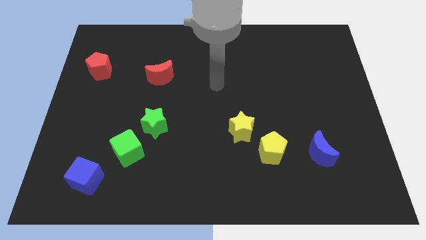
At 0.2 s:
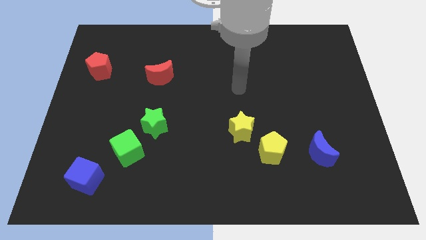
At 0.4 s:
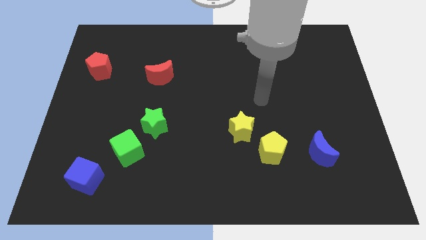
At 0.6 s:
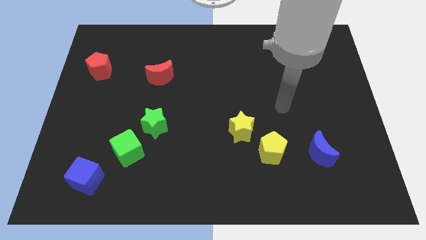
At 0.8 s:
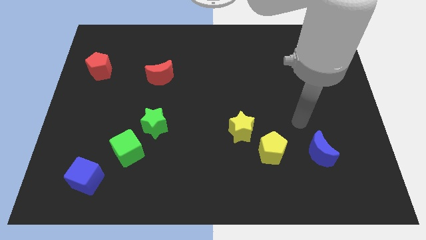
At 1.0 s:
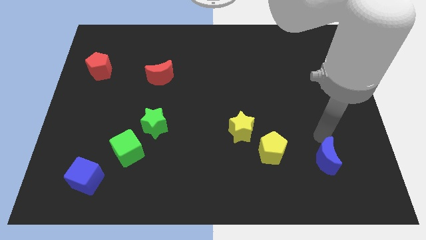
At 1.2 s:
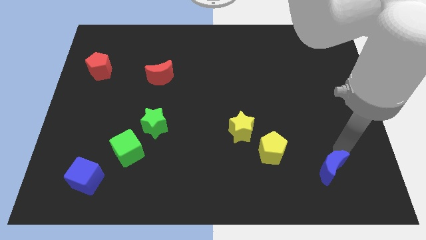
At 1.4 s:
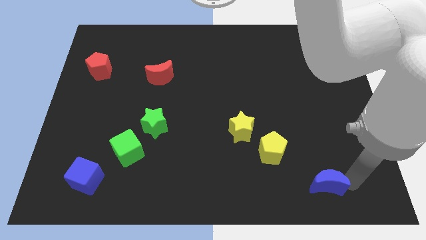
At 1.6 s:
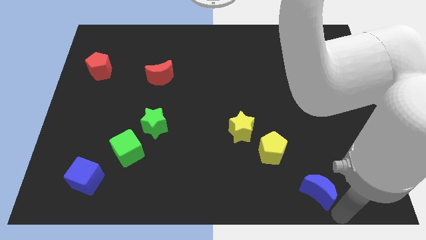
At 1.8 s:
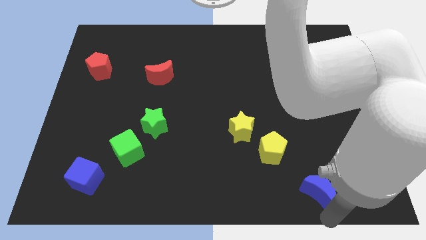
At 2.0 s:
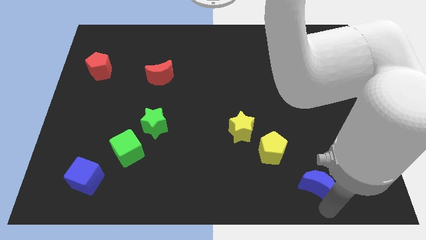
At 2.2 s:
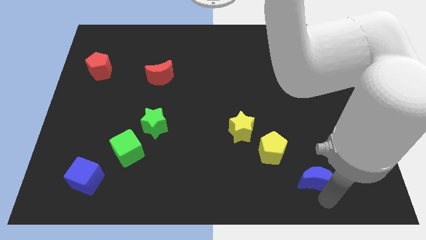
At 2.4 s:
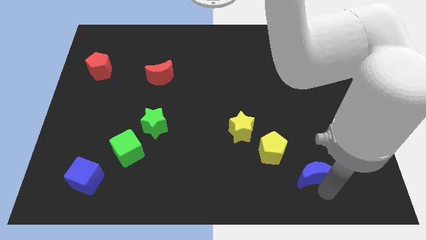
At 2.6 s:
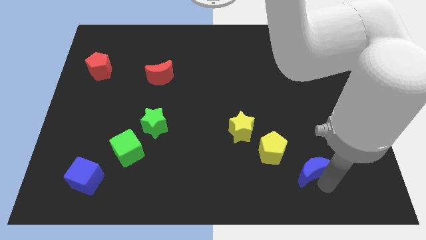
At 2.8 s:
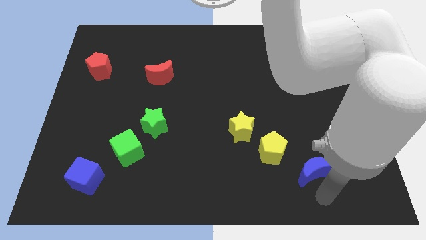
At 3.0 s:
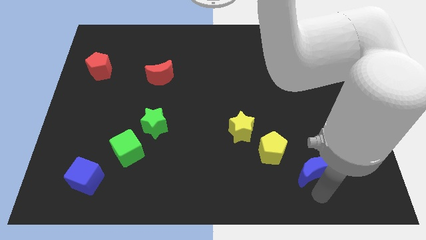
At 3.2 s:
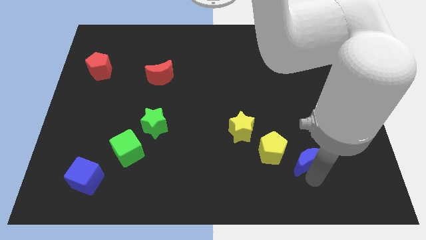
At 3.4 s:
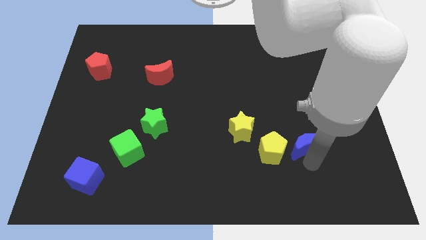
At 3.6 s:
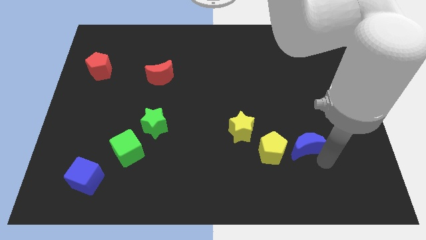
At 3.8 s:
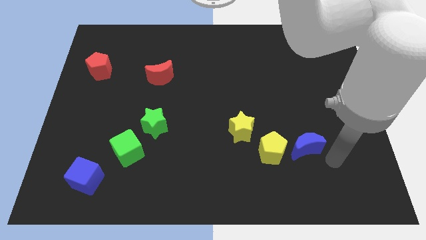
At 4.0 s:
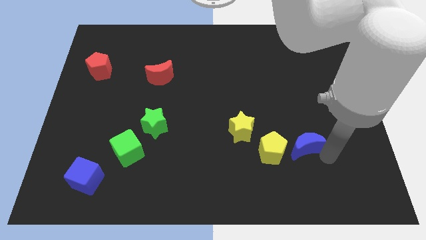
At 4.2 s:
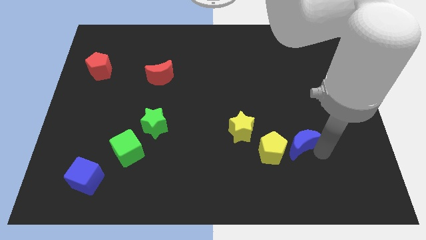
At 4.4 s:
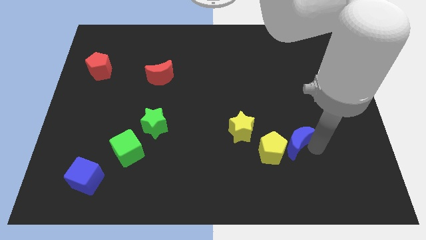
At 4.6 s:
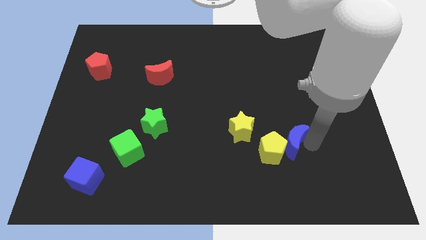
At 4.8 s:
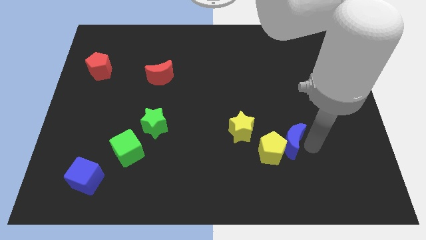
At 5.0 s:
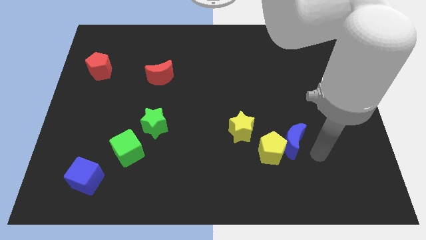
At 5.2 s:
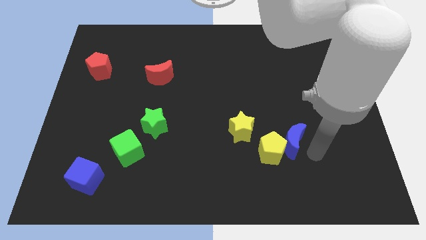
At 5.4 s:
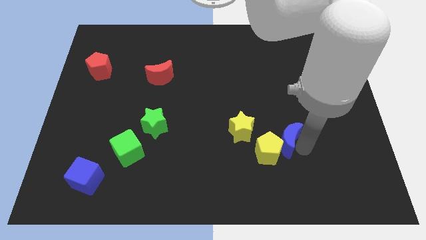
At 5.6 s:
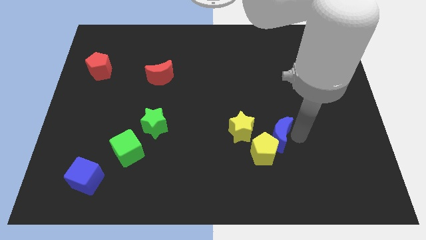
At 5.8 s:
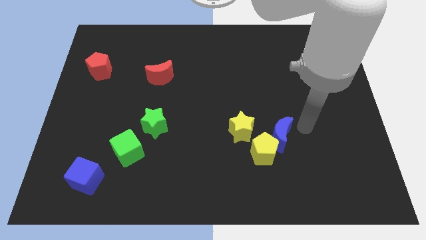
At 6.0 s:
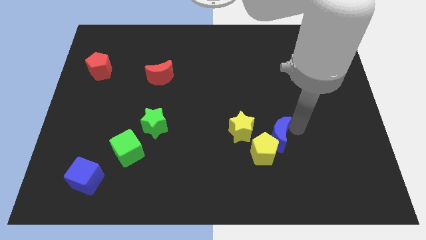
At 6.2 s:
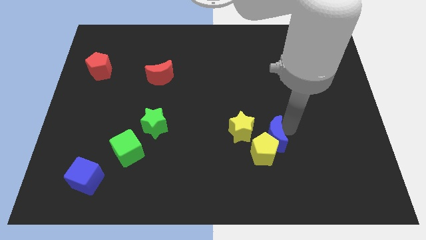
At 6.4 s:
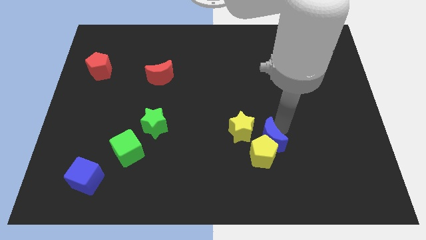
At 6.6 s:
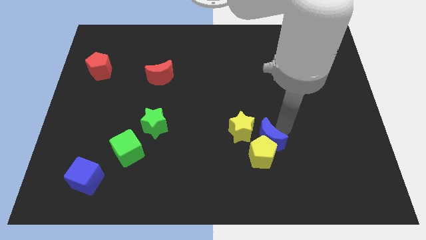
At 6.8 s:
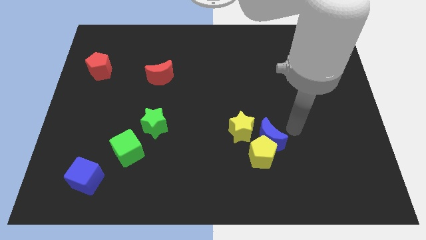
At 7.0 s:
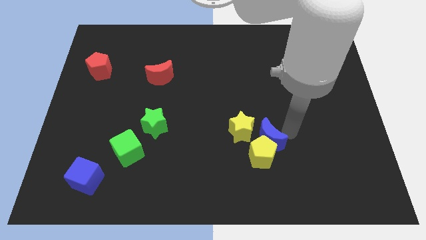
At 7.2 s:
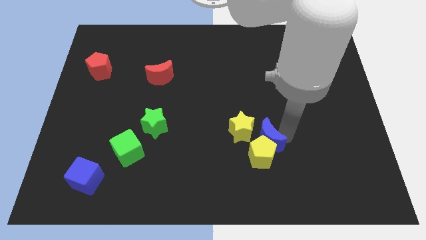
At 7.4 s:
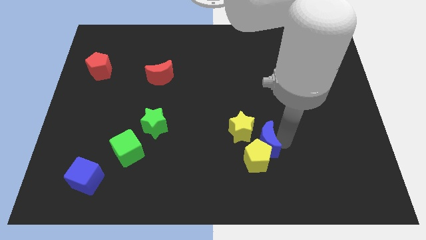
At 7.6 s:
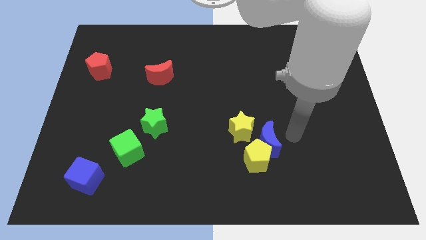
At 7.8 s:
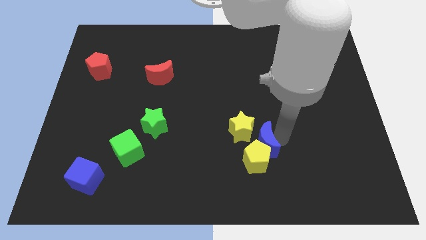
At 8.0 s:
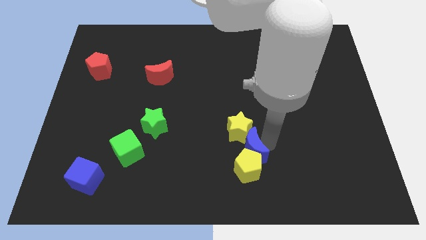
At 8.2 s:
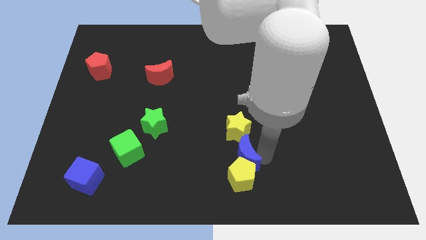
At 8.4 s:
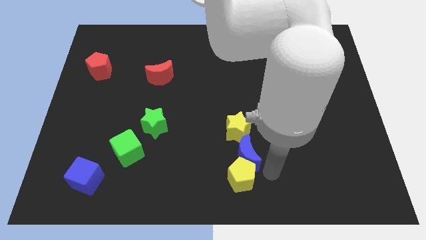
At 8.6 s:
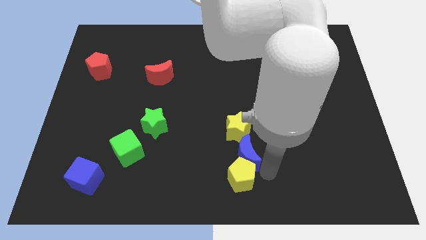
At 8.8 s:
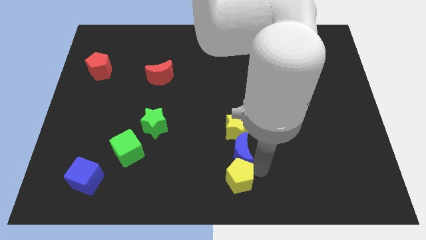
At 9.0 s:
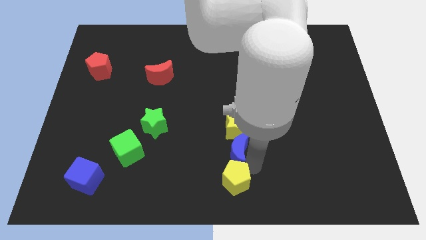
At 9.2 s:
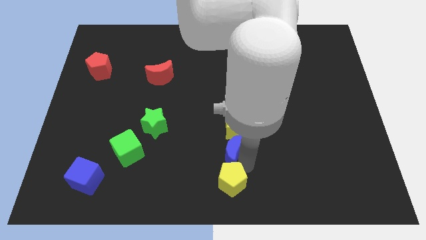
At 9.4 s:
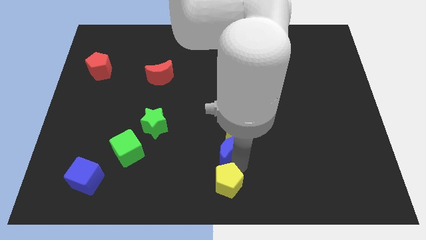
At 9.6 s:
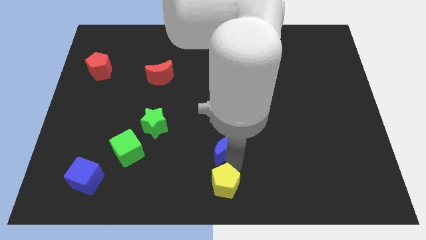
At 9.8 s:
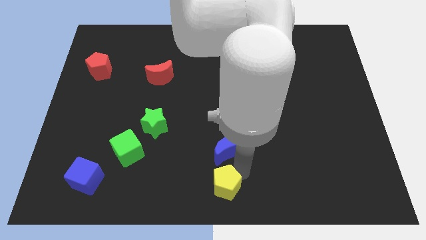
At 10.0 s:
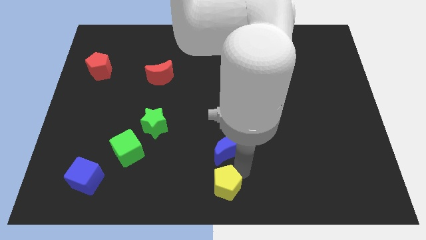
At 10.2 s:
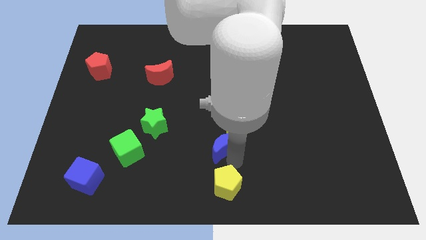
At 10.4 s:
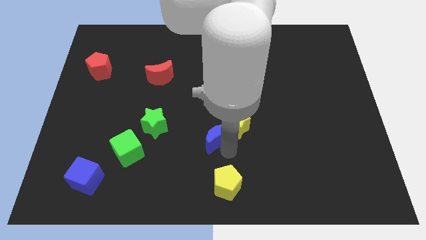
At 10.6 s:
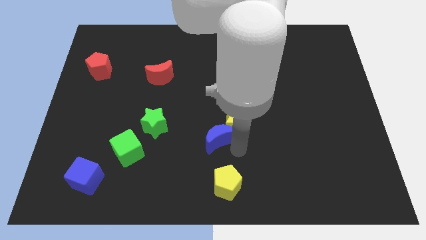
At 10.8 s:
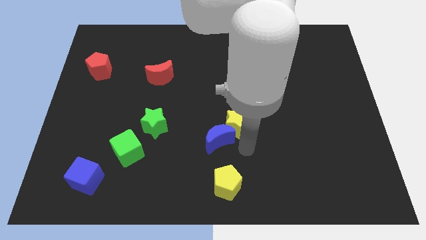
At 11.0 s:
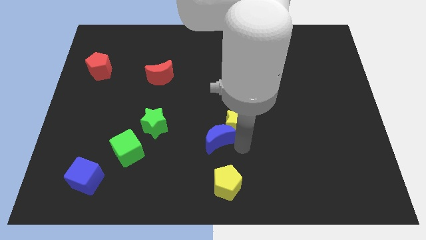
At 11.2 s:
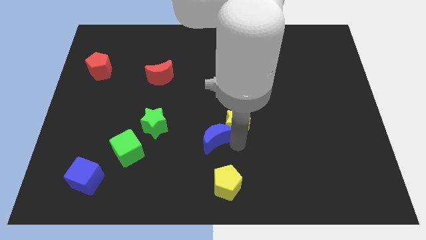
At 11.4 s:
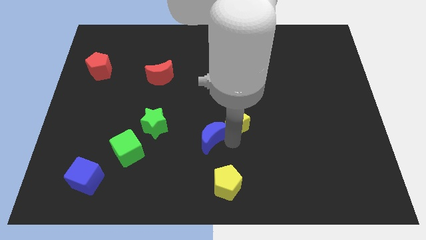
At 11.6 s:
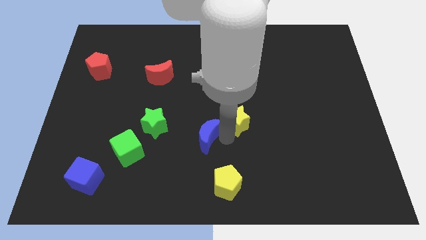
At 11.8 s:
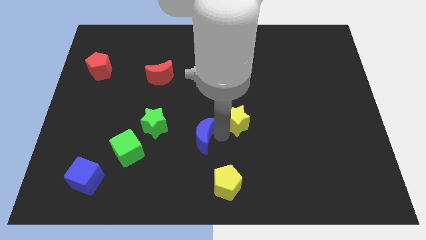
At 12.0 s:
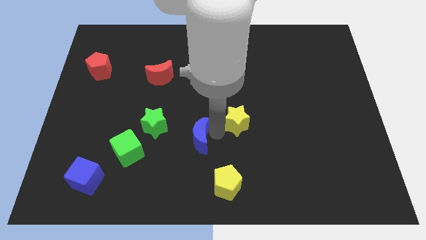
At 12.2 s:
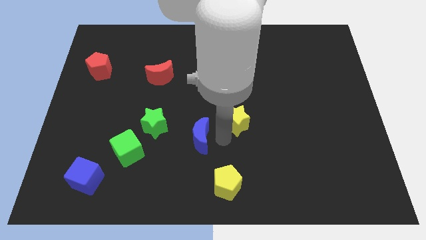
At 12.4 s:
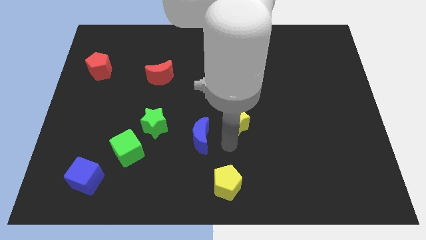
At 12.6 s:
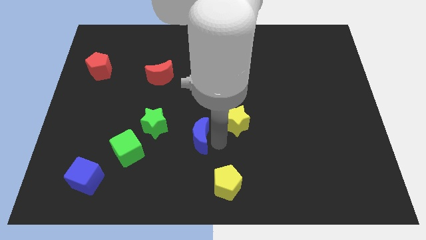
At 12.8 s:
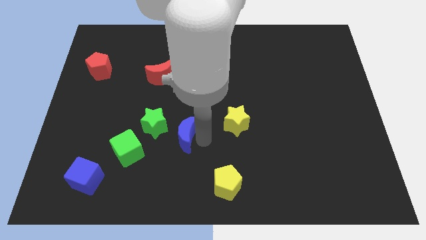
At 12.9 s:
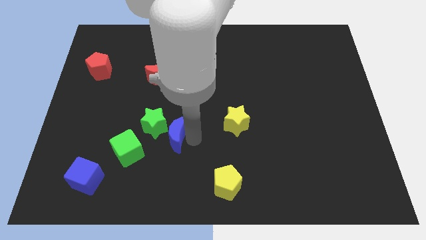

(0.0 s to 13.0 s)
push the blue moon close to the green star
